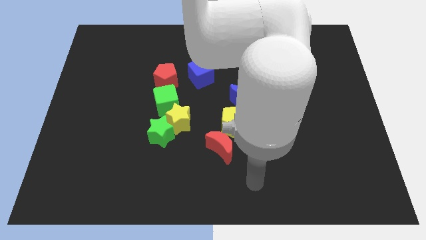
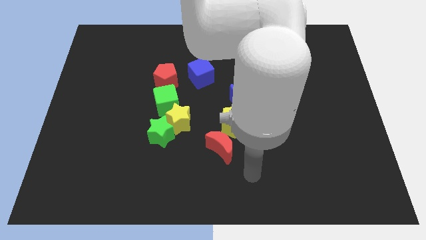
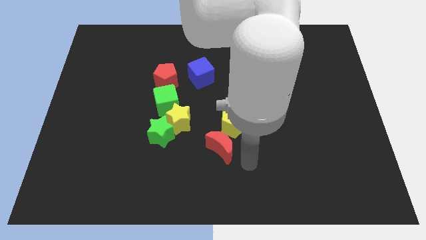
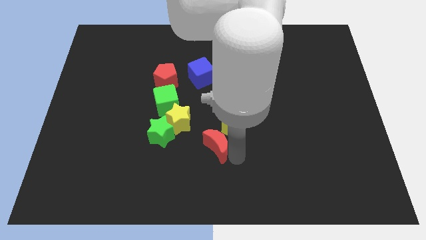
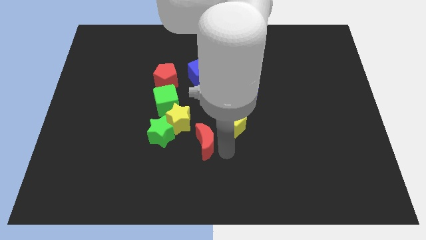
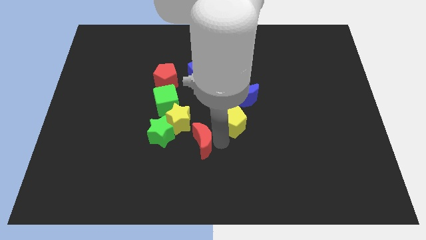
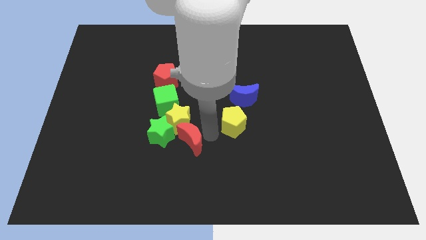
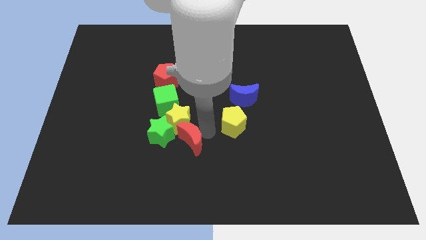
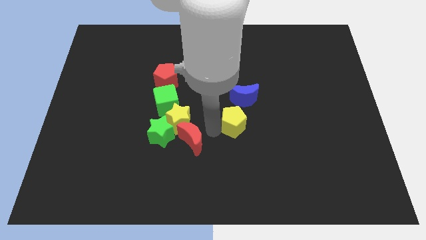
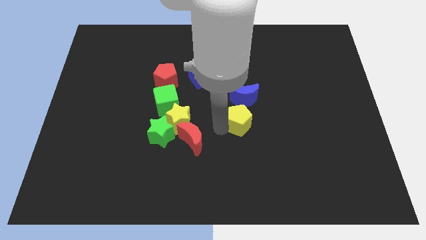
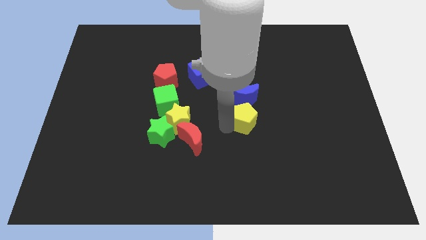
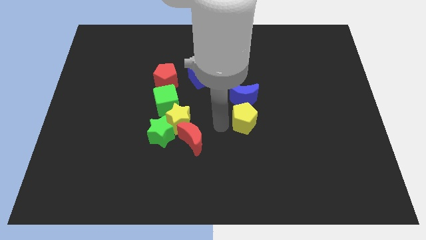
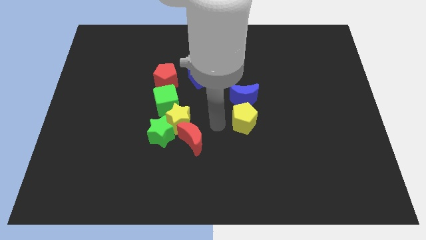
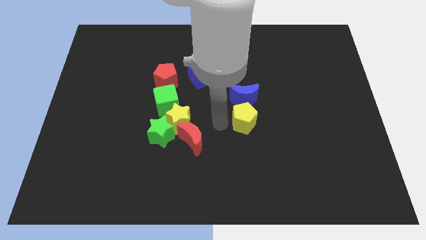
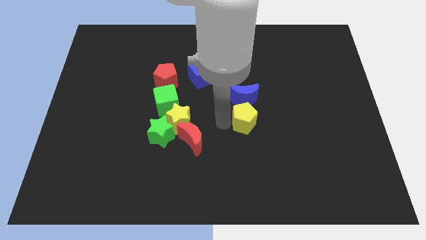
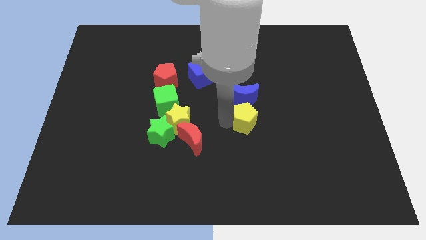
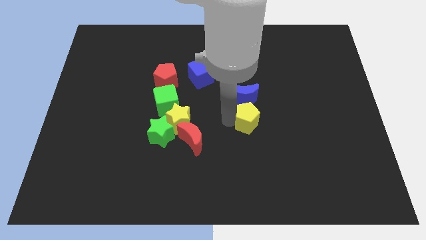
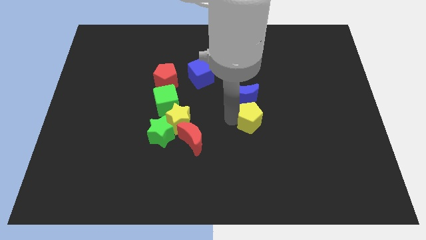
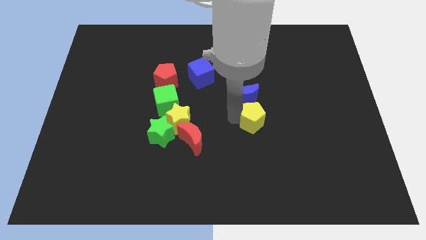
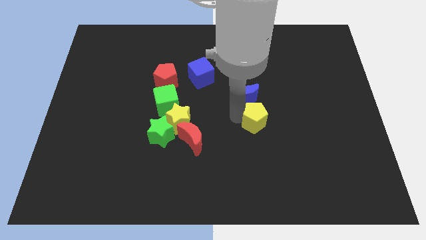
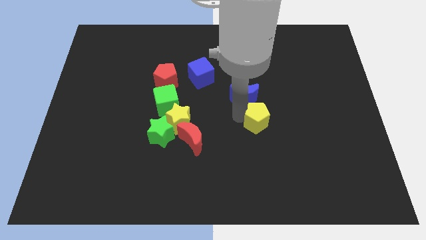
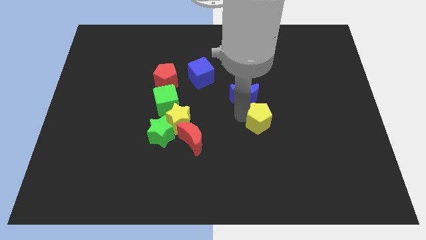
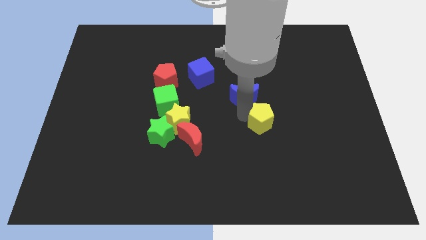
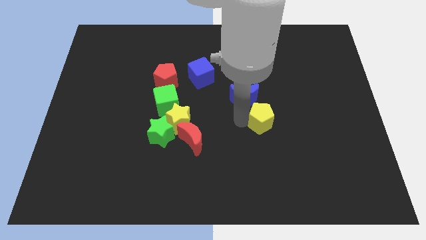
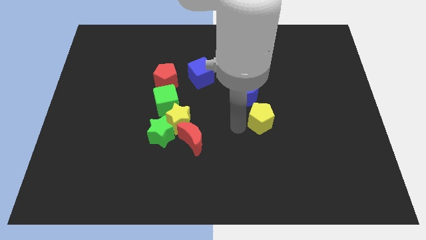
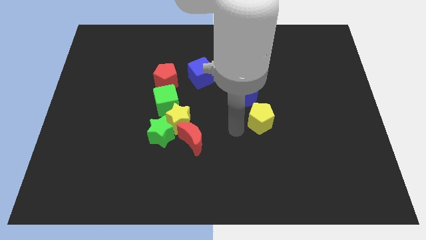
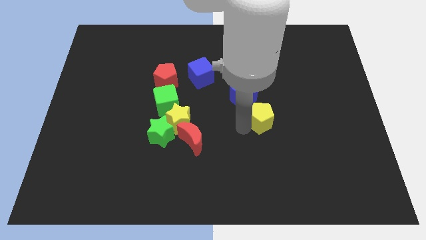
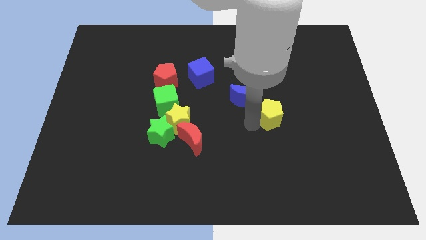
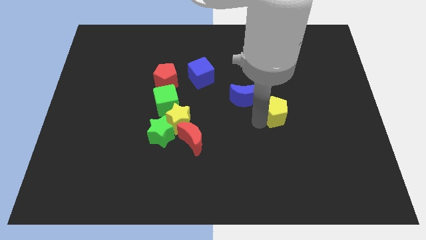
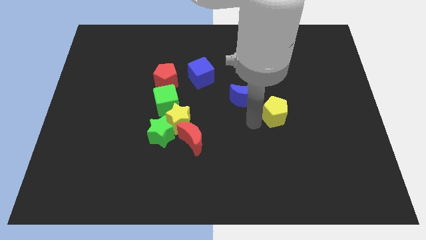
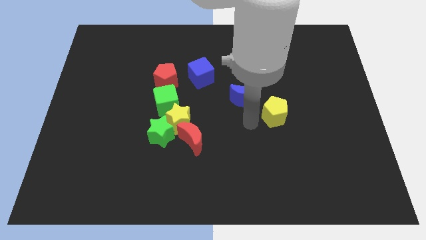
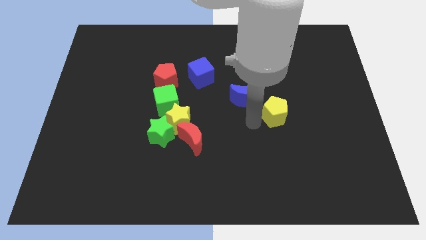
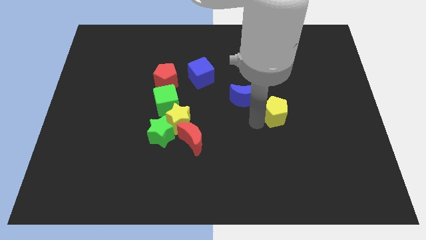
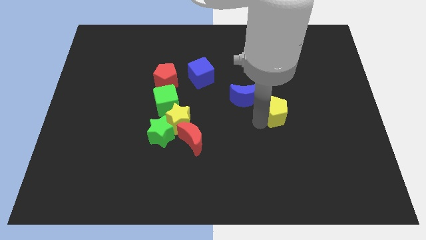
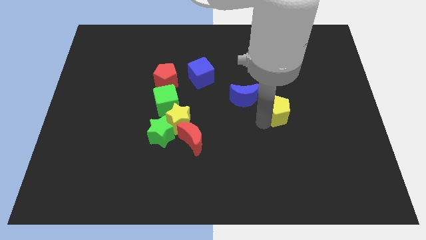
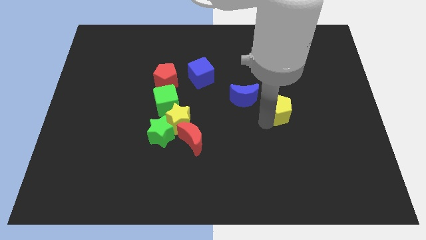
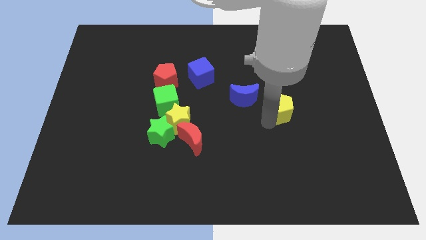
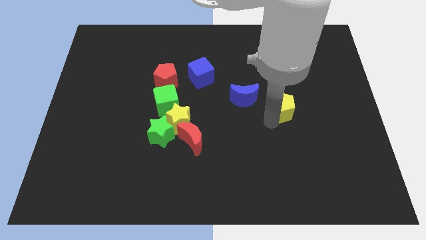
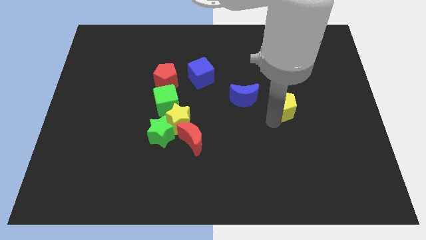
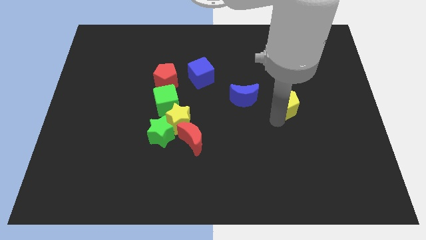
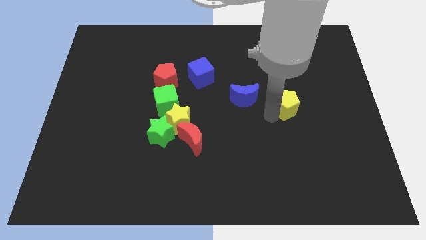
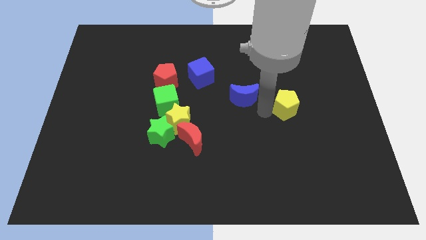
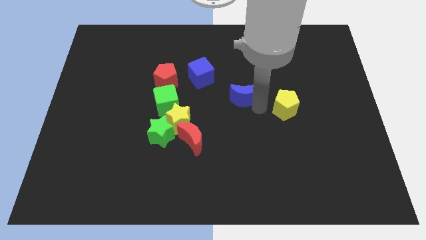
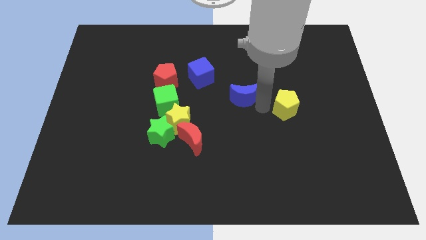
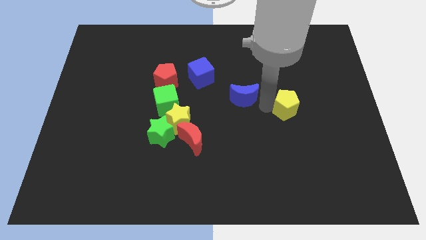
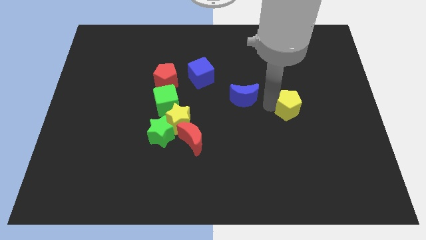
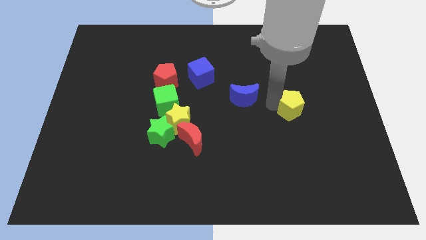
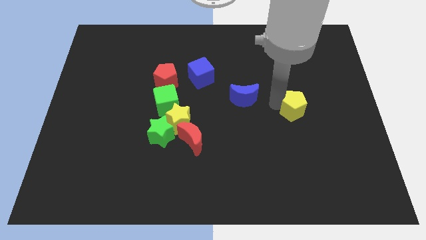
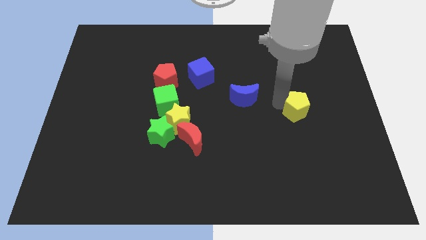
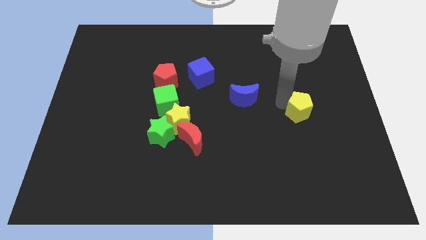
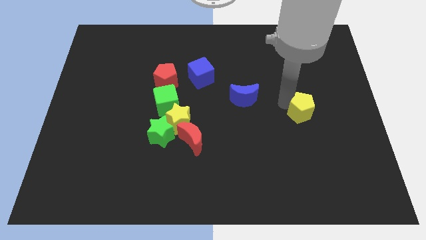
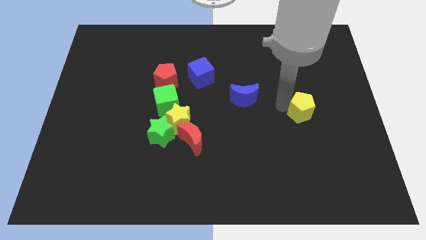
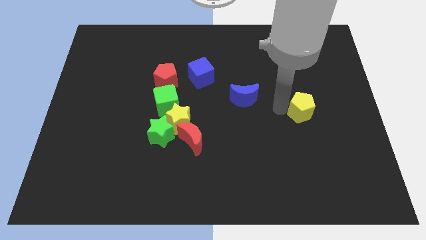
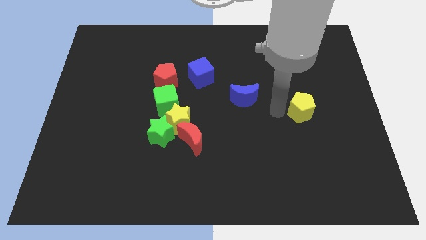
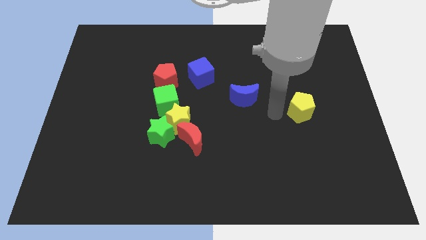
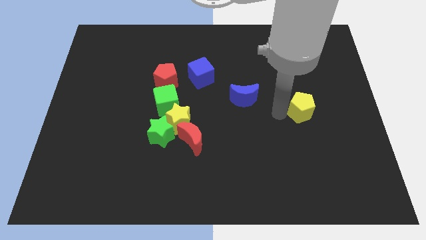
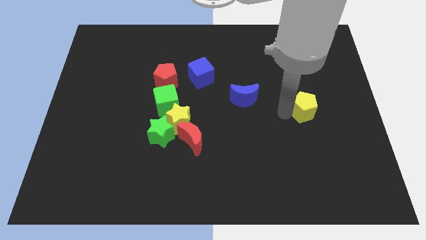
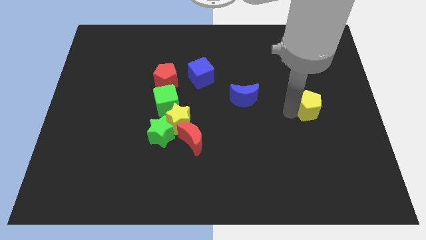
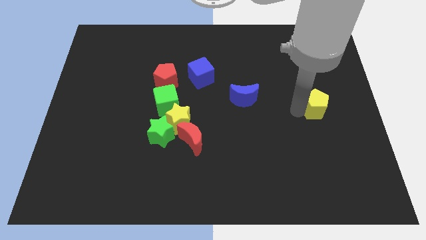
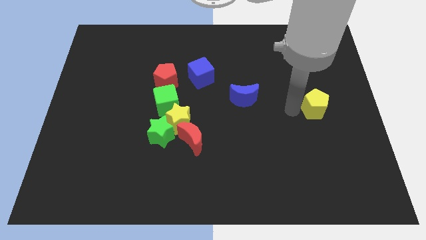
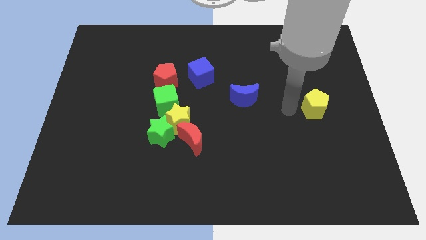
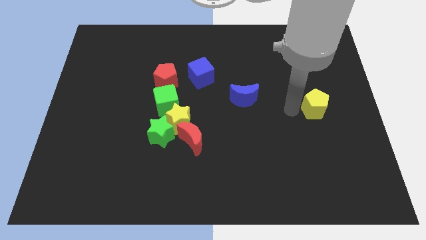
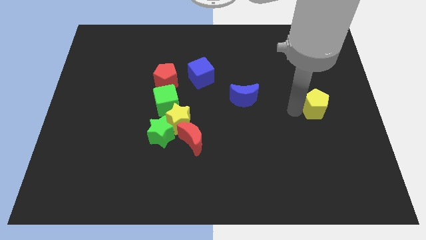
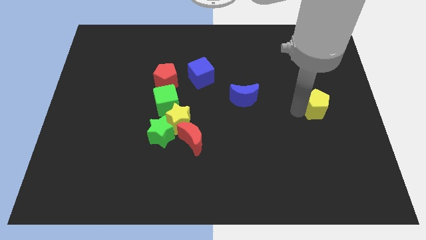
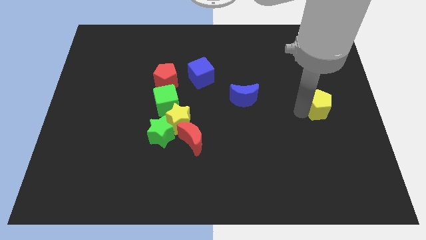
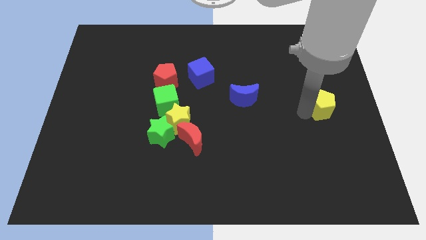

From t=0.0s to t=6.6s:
slide the yellow pentagon to the center right

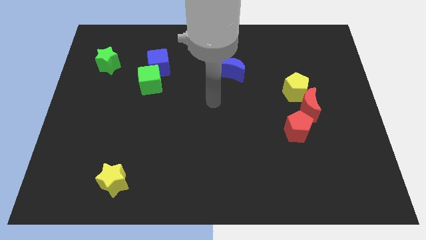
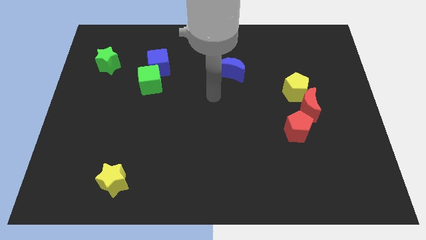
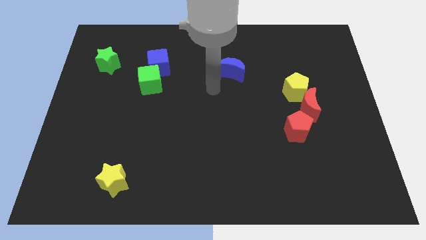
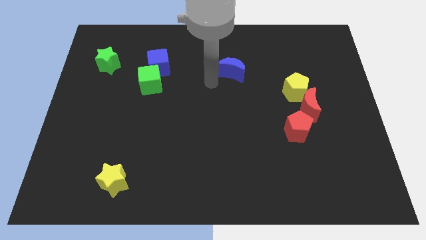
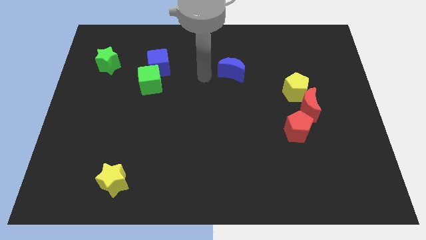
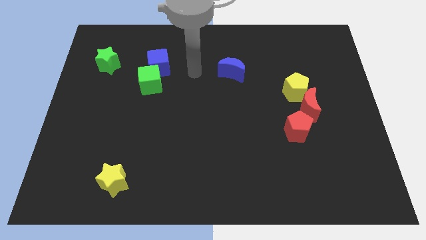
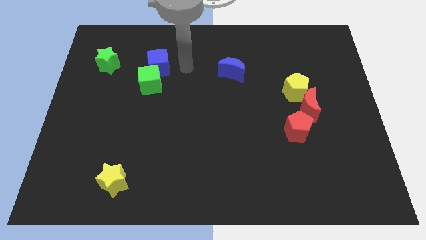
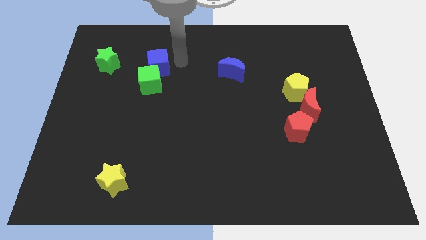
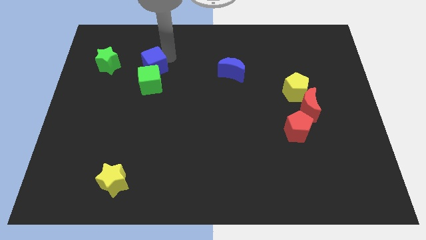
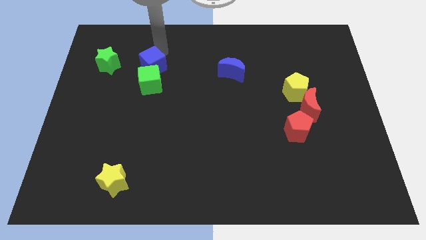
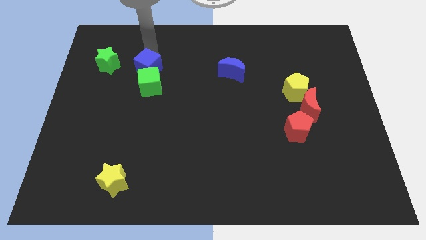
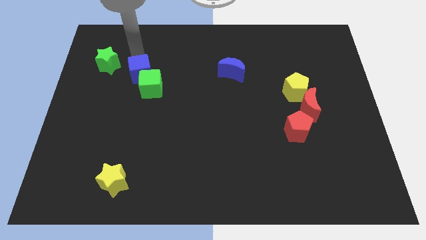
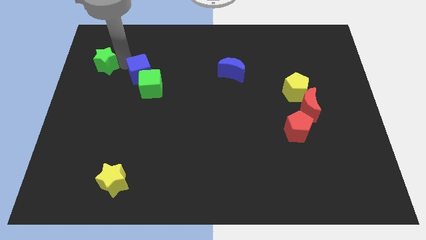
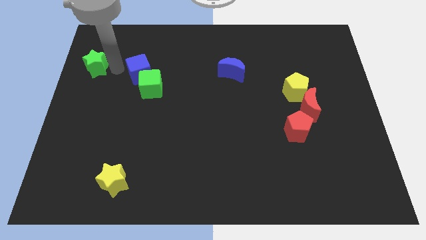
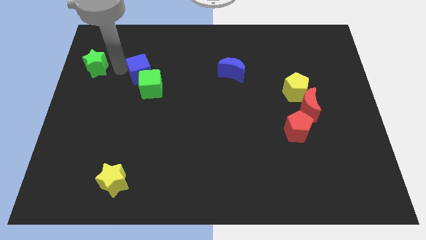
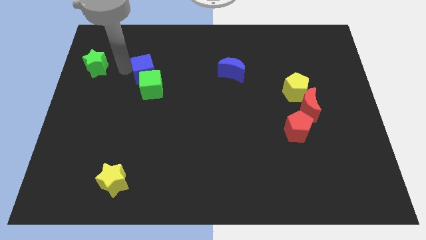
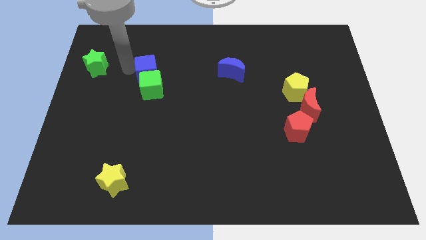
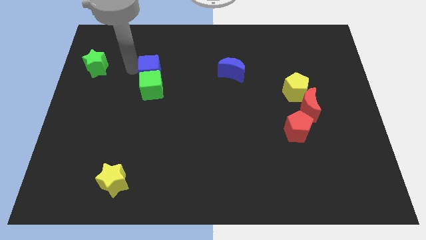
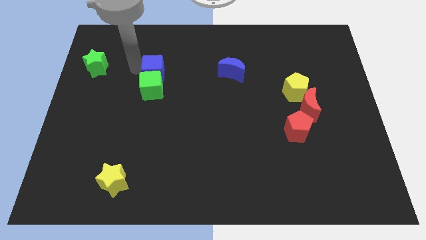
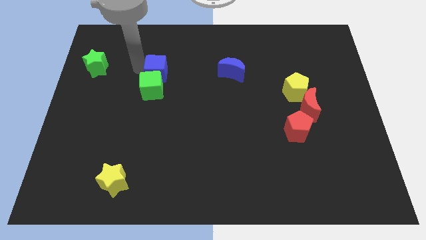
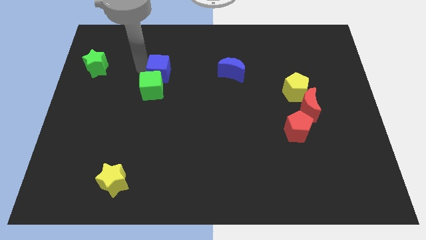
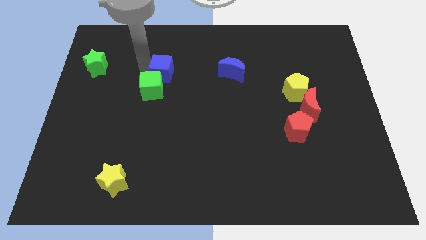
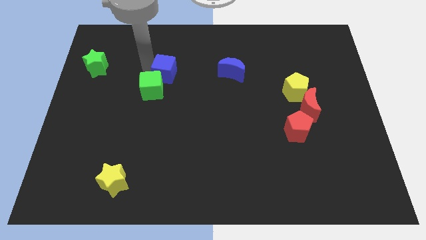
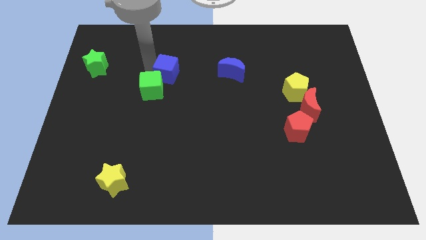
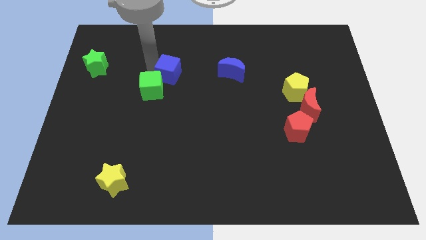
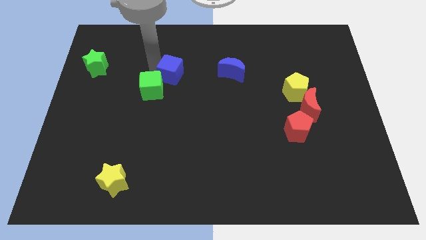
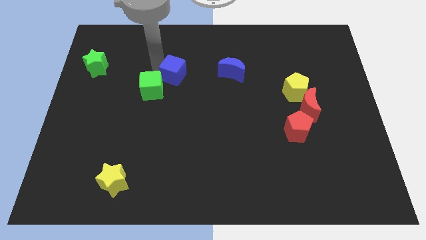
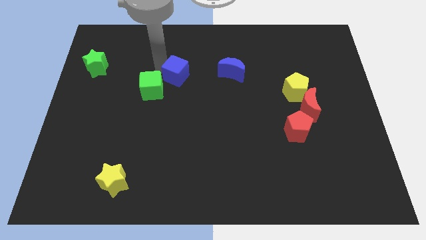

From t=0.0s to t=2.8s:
put the blue cube to the middle of the board
